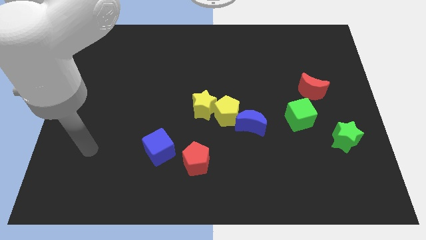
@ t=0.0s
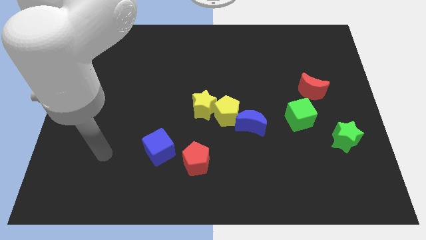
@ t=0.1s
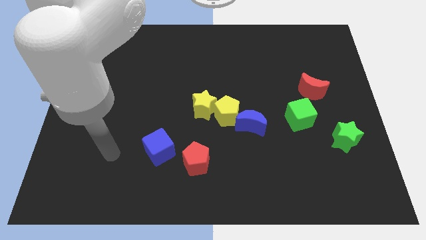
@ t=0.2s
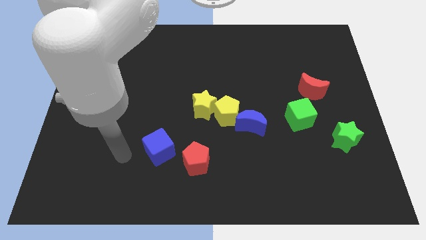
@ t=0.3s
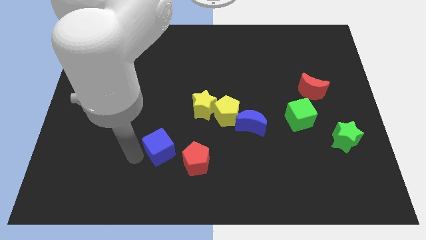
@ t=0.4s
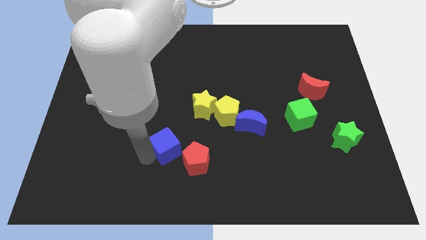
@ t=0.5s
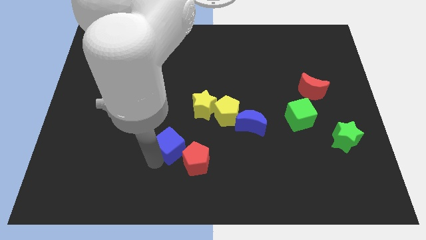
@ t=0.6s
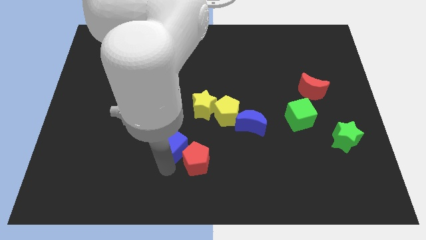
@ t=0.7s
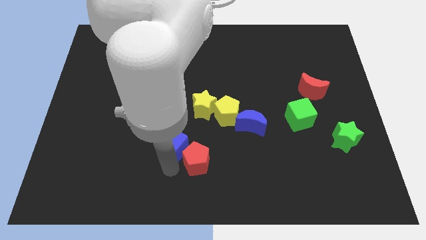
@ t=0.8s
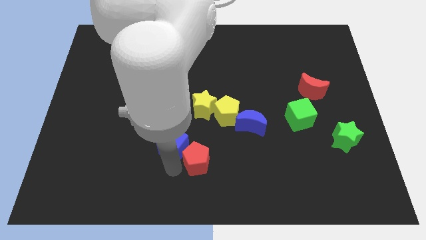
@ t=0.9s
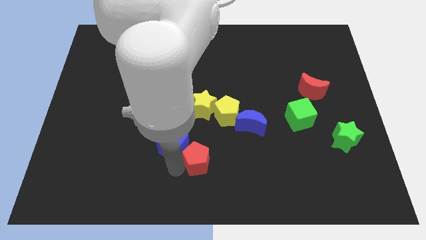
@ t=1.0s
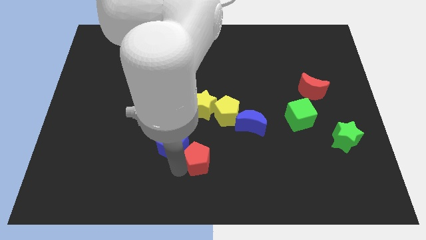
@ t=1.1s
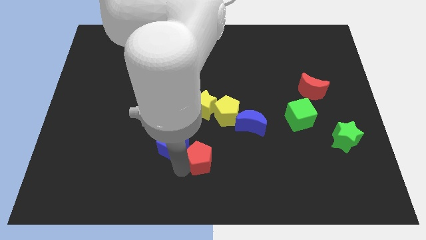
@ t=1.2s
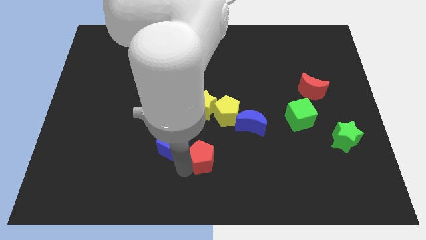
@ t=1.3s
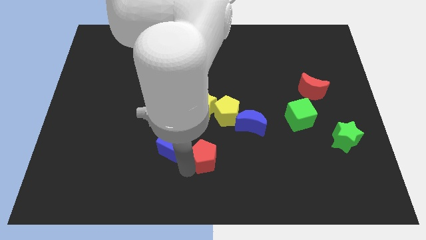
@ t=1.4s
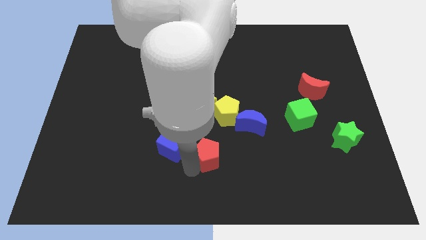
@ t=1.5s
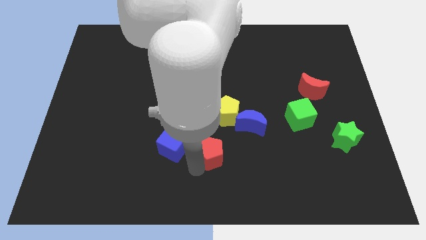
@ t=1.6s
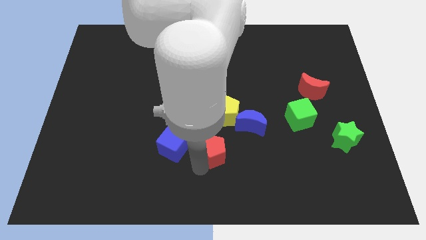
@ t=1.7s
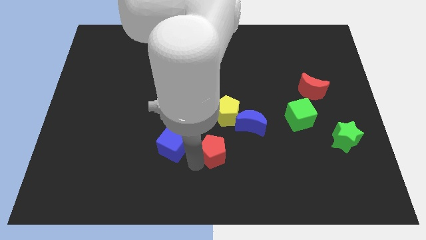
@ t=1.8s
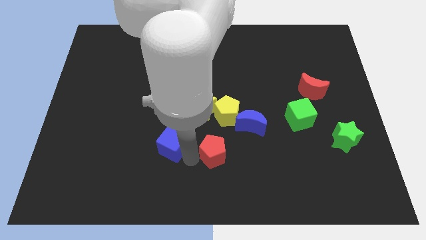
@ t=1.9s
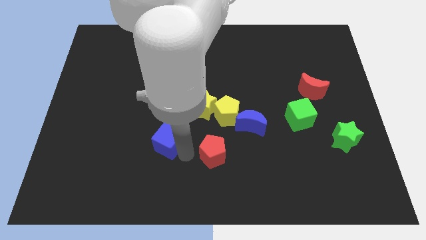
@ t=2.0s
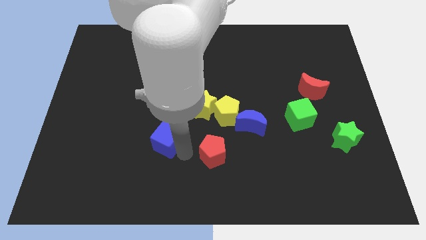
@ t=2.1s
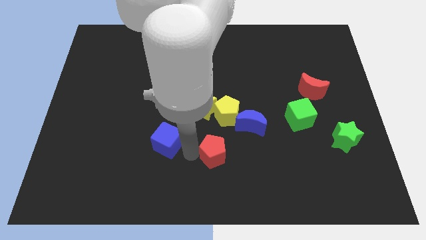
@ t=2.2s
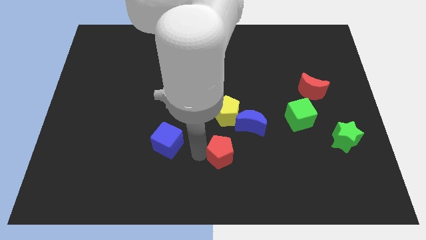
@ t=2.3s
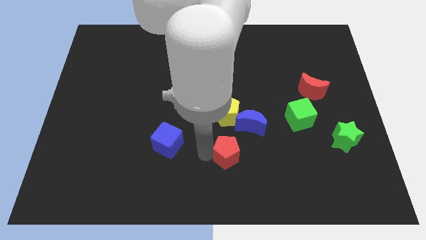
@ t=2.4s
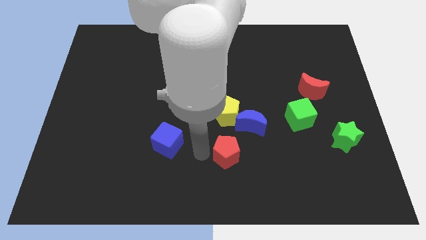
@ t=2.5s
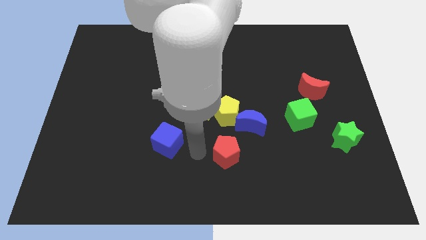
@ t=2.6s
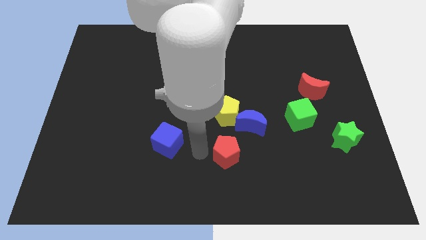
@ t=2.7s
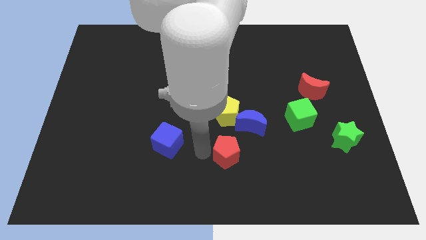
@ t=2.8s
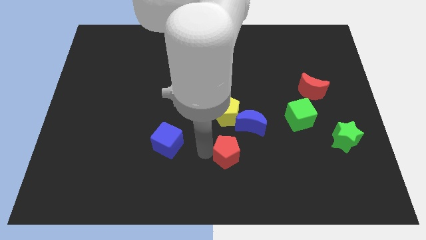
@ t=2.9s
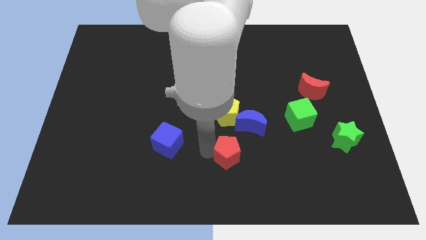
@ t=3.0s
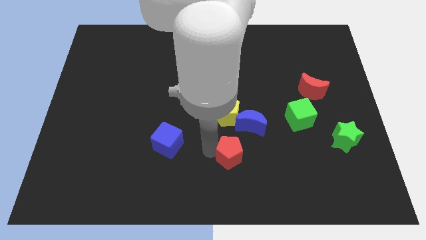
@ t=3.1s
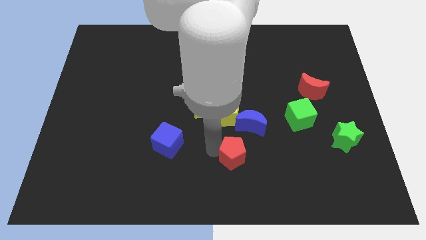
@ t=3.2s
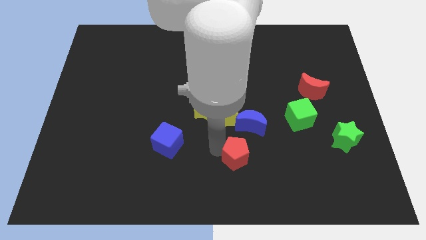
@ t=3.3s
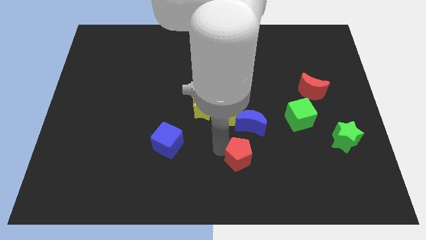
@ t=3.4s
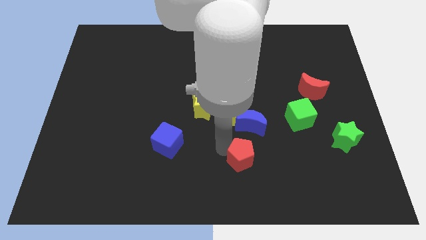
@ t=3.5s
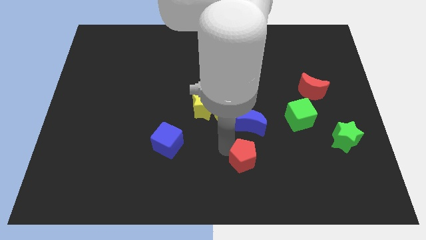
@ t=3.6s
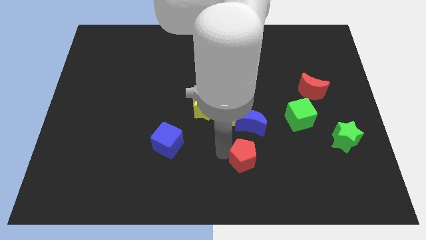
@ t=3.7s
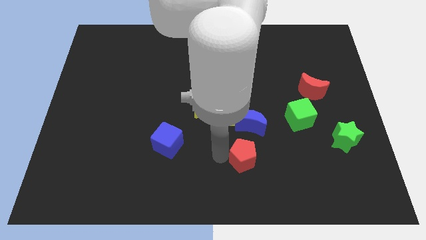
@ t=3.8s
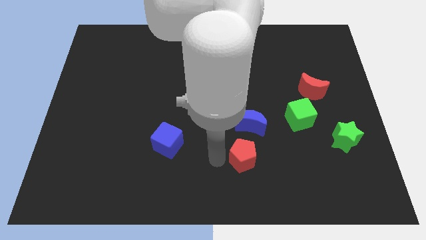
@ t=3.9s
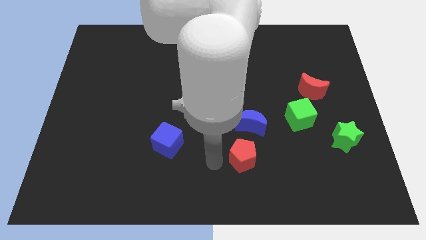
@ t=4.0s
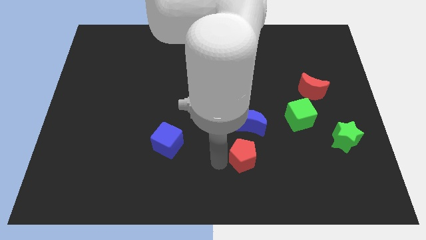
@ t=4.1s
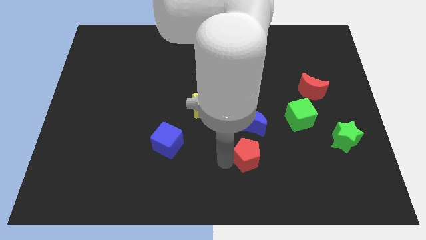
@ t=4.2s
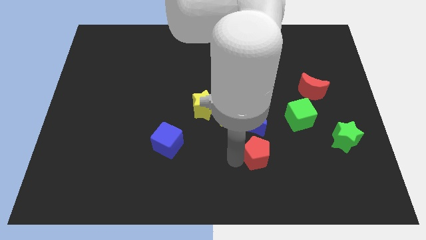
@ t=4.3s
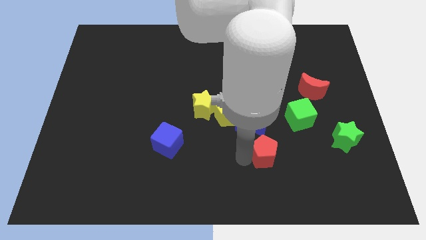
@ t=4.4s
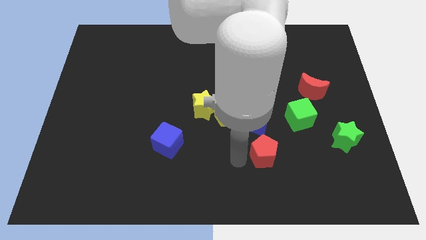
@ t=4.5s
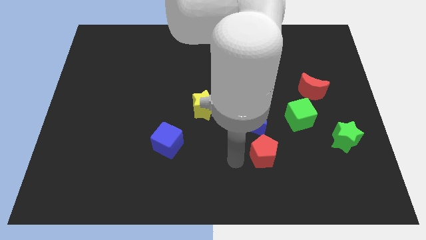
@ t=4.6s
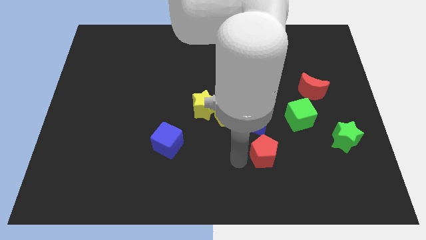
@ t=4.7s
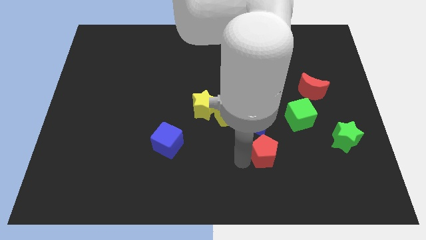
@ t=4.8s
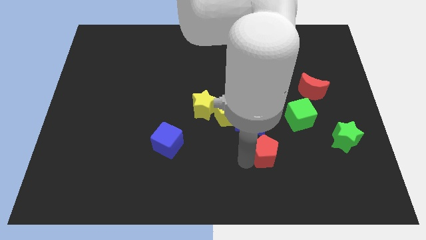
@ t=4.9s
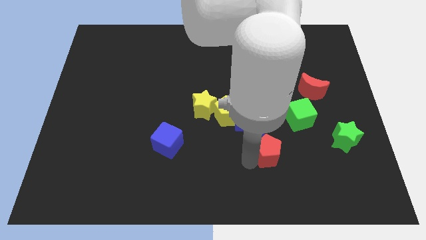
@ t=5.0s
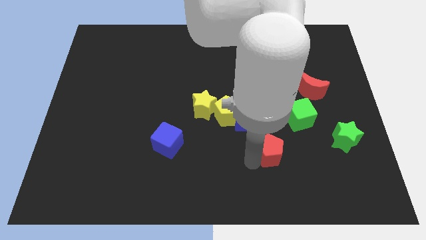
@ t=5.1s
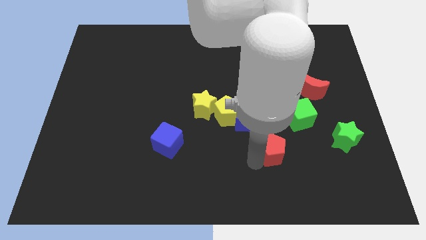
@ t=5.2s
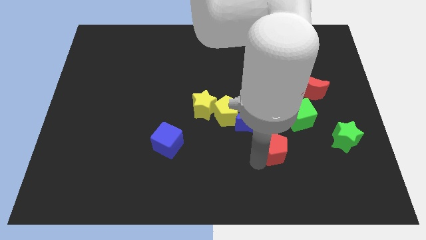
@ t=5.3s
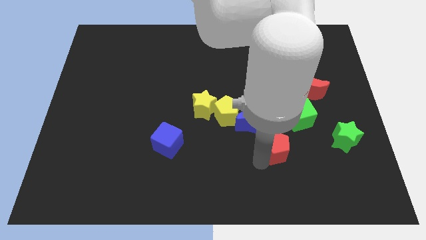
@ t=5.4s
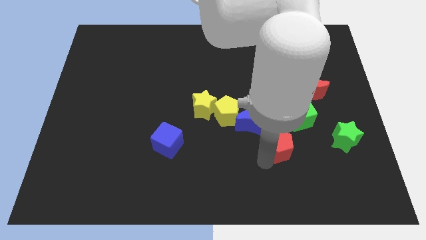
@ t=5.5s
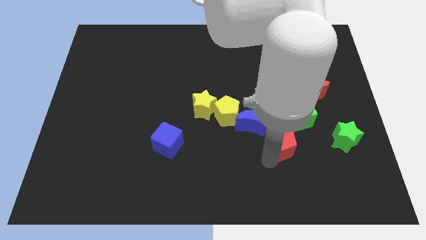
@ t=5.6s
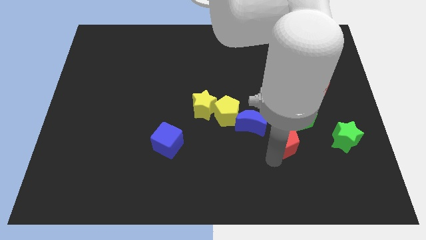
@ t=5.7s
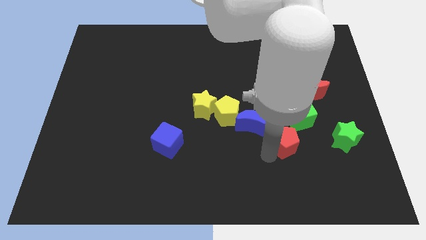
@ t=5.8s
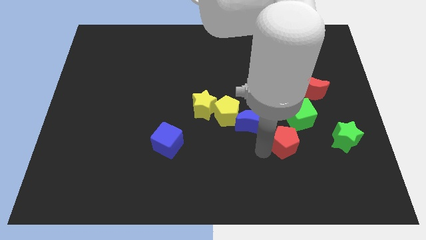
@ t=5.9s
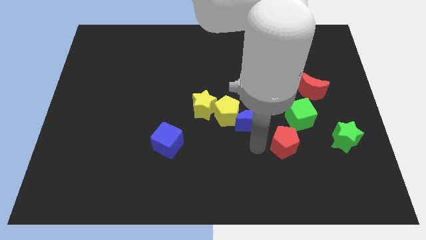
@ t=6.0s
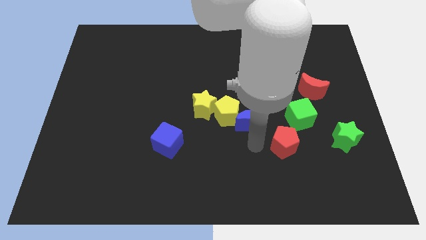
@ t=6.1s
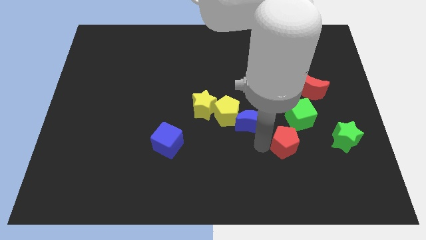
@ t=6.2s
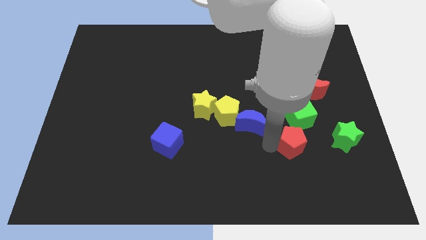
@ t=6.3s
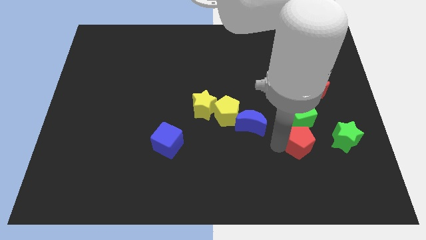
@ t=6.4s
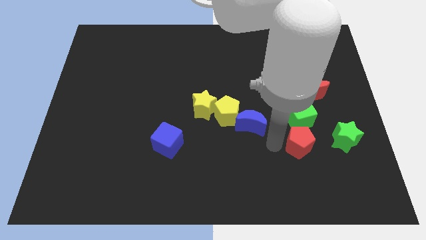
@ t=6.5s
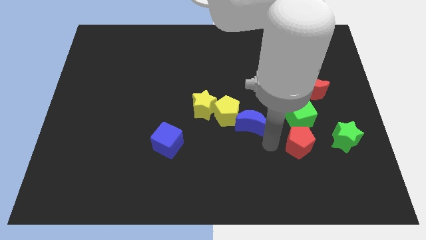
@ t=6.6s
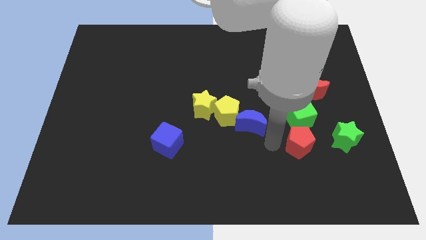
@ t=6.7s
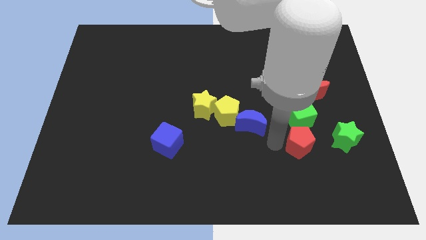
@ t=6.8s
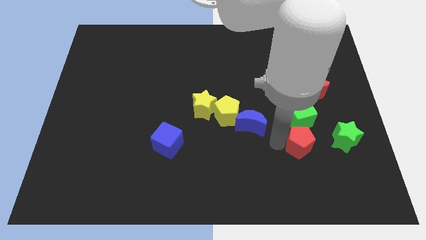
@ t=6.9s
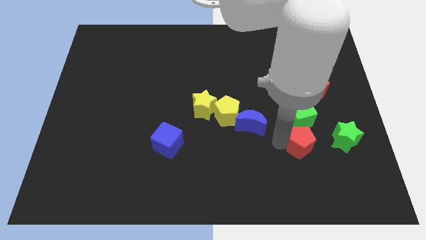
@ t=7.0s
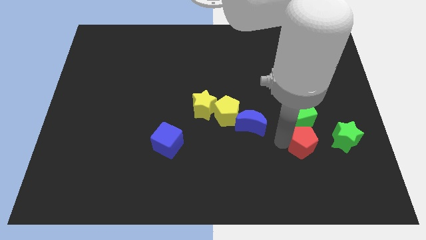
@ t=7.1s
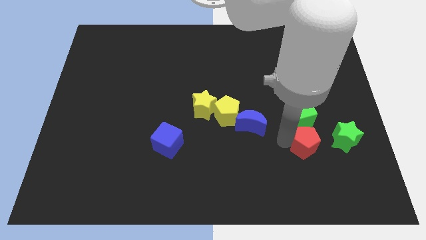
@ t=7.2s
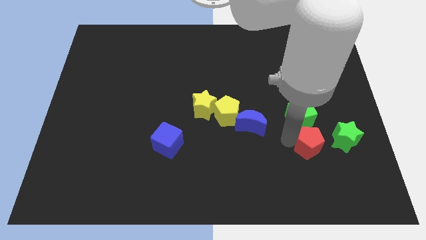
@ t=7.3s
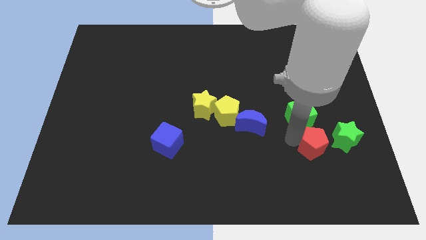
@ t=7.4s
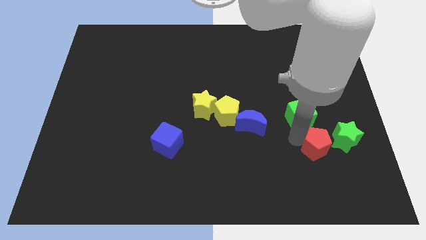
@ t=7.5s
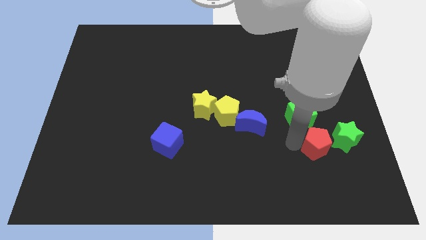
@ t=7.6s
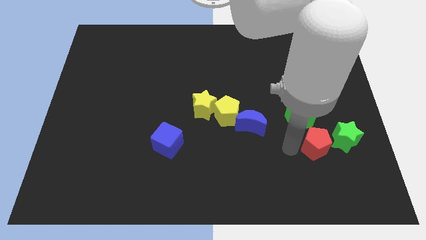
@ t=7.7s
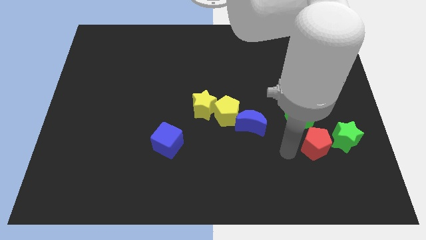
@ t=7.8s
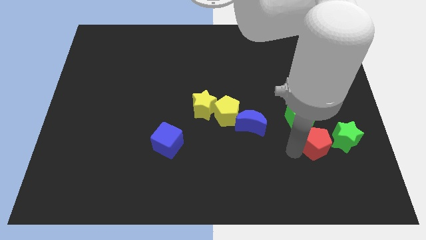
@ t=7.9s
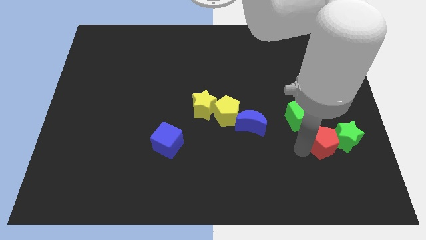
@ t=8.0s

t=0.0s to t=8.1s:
slide the red pentagon close to the green star

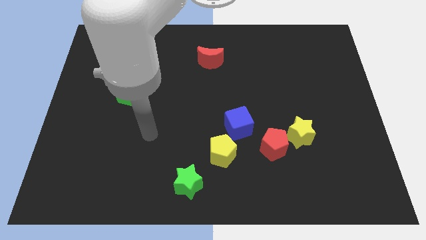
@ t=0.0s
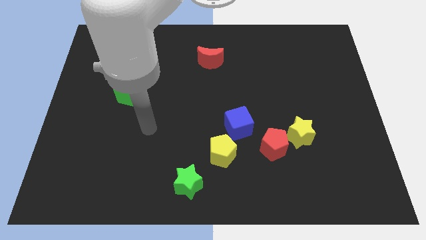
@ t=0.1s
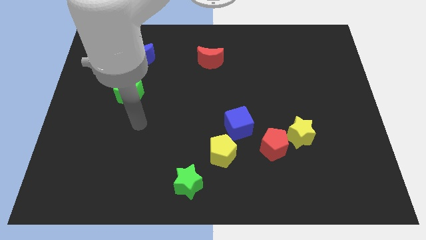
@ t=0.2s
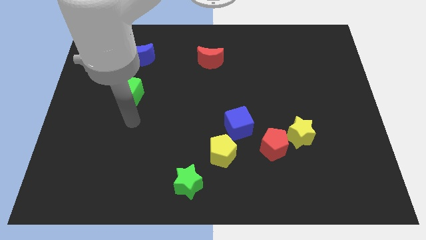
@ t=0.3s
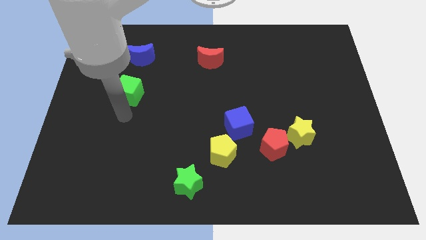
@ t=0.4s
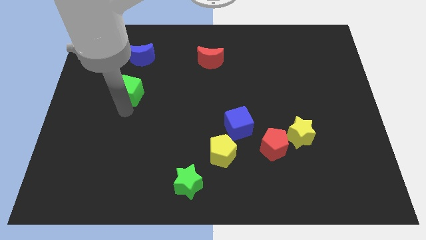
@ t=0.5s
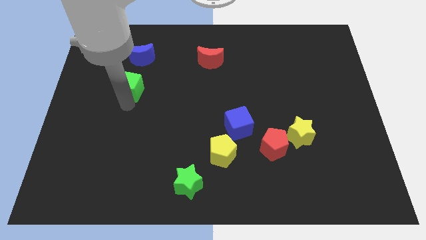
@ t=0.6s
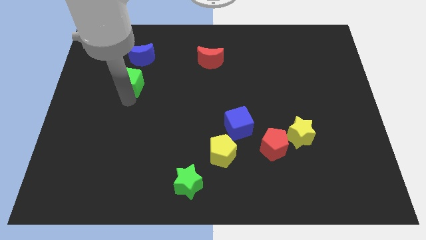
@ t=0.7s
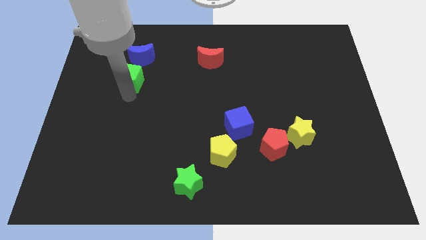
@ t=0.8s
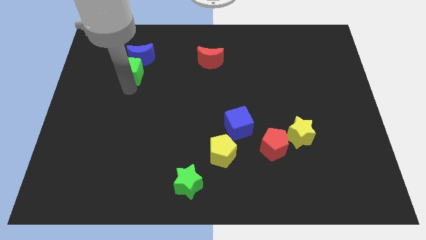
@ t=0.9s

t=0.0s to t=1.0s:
put the green cube to the blue moon
